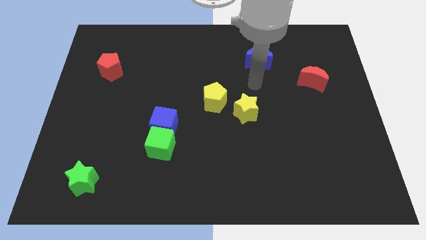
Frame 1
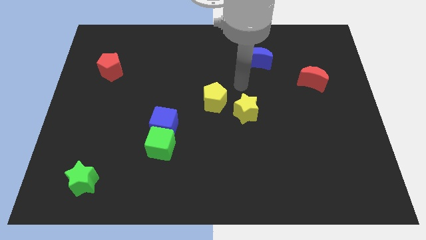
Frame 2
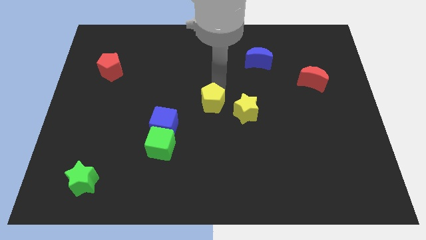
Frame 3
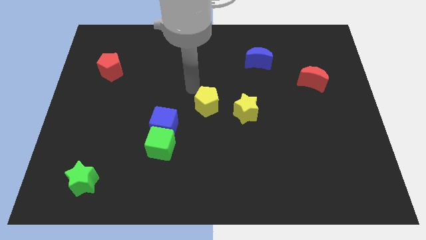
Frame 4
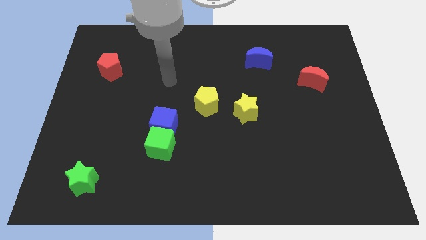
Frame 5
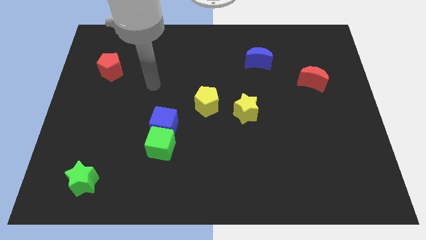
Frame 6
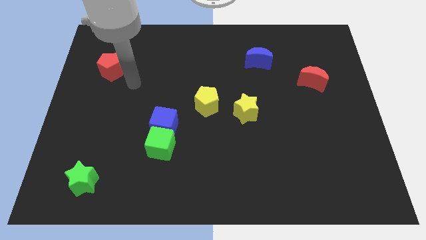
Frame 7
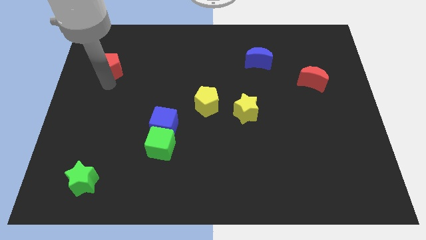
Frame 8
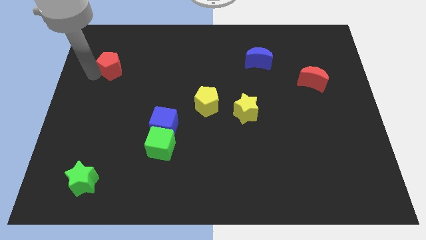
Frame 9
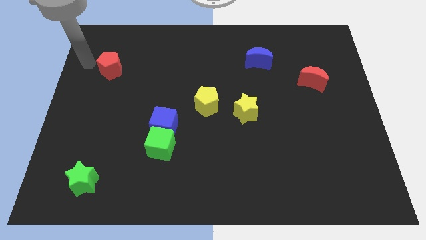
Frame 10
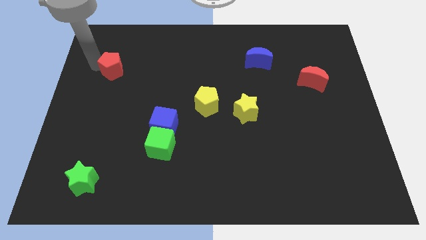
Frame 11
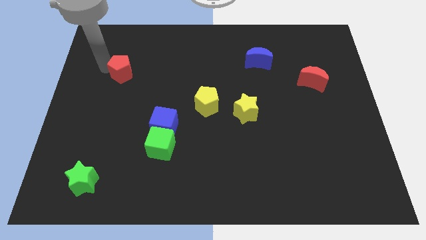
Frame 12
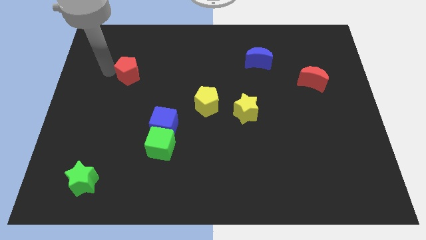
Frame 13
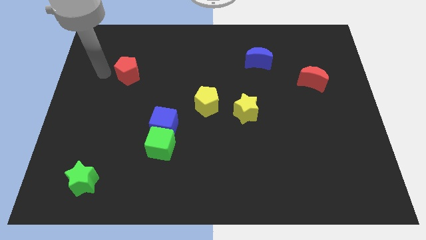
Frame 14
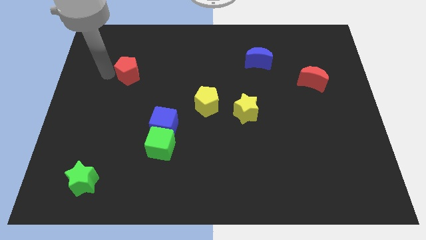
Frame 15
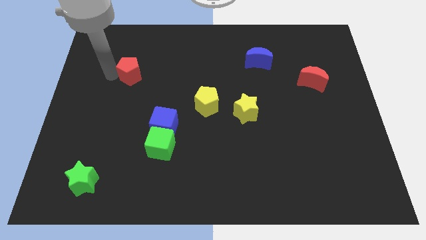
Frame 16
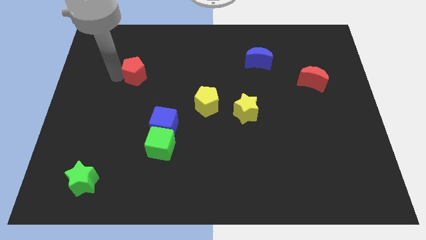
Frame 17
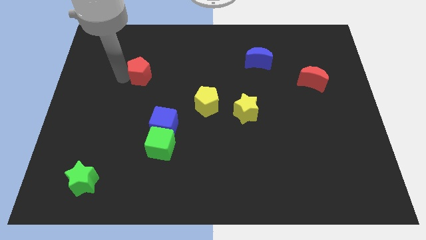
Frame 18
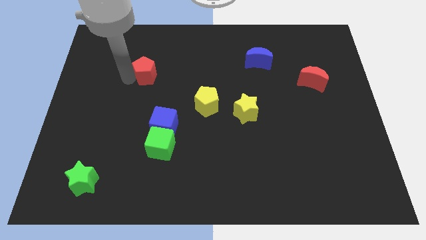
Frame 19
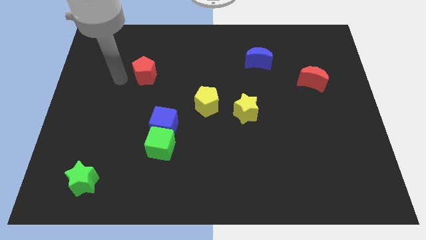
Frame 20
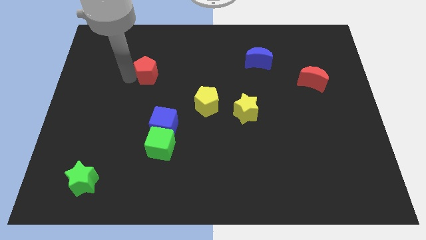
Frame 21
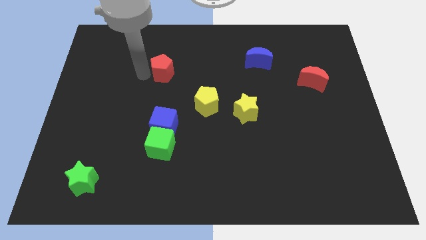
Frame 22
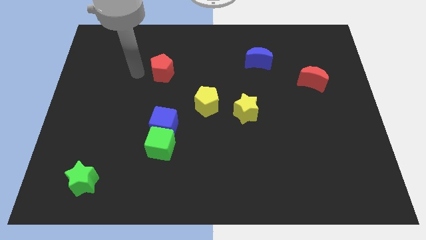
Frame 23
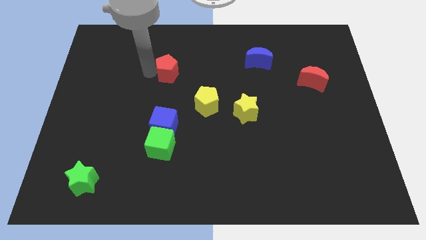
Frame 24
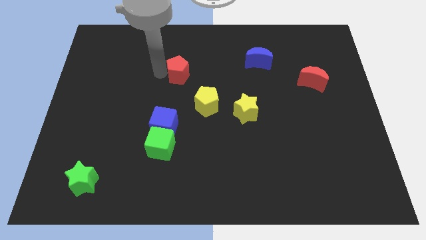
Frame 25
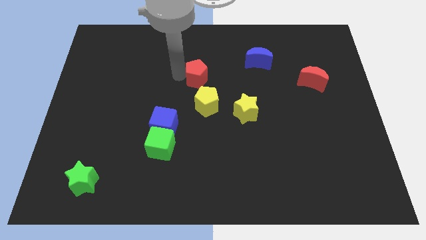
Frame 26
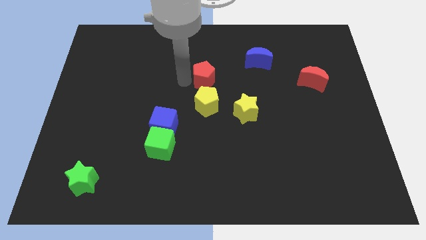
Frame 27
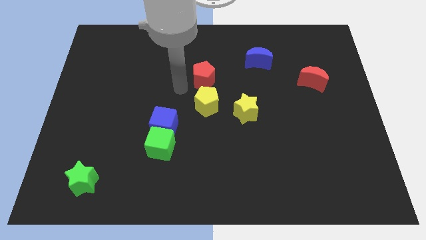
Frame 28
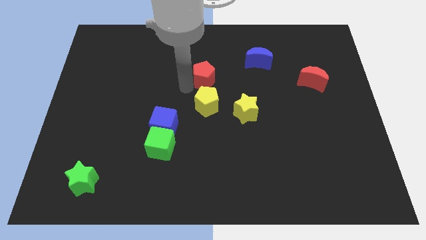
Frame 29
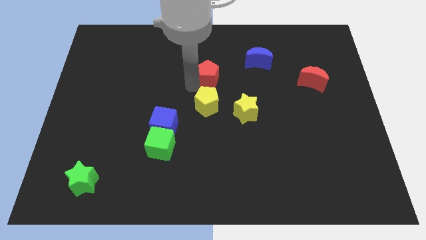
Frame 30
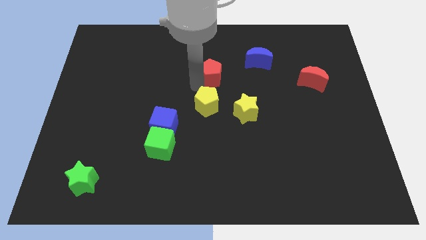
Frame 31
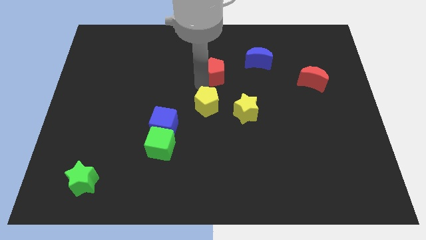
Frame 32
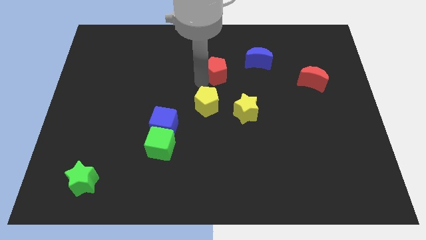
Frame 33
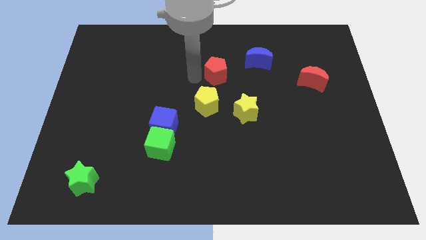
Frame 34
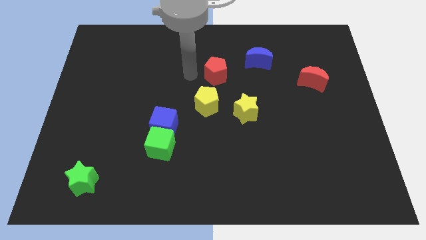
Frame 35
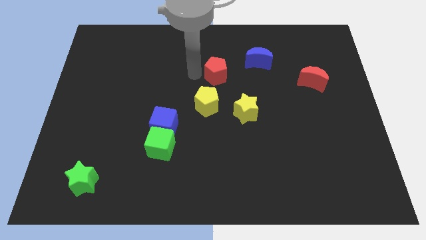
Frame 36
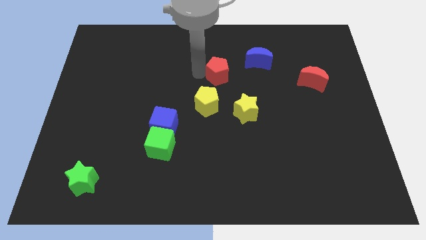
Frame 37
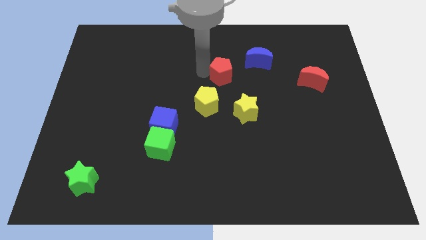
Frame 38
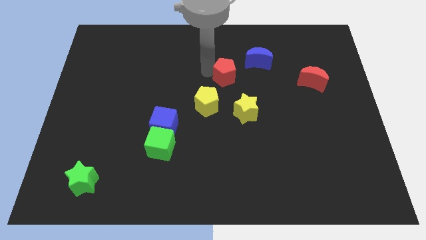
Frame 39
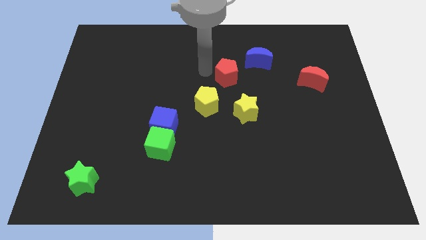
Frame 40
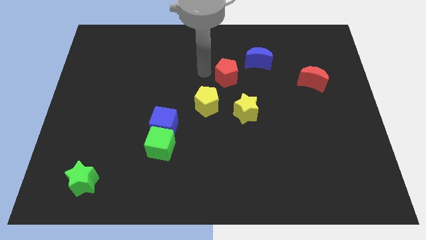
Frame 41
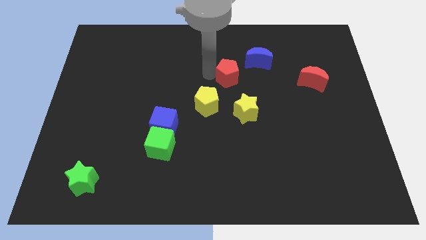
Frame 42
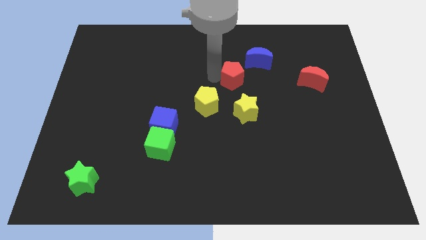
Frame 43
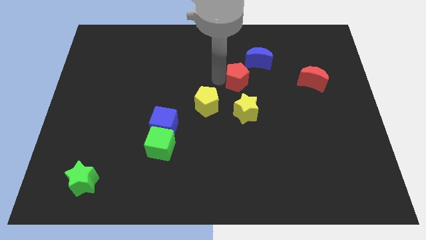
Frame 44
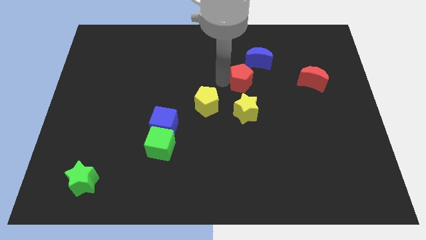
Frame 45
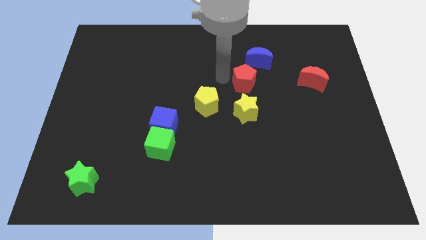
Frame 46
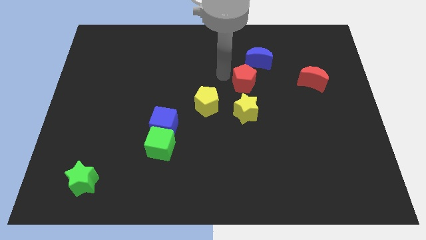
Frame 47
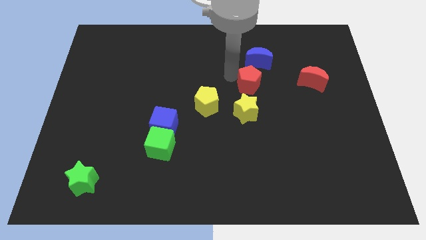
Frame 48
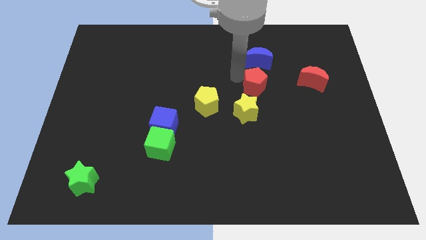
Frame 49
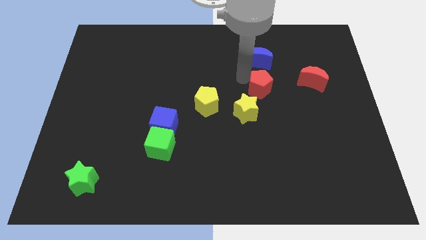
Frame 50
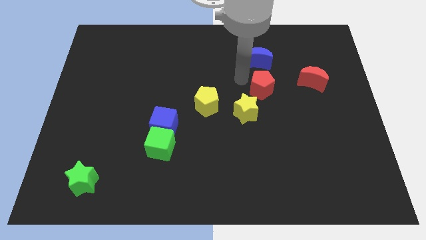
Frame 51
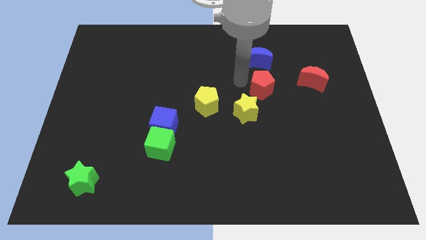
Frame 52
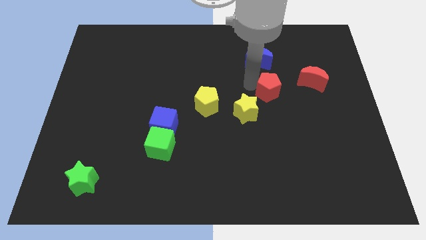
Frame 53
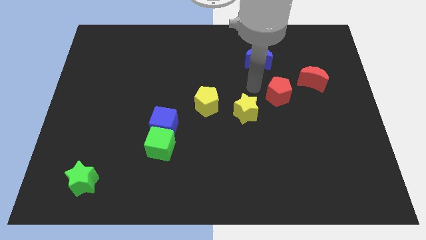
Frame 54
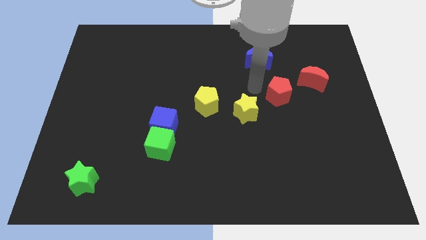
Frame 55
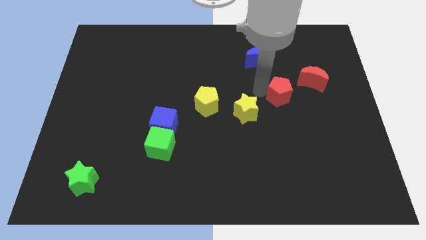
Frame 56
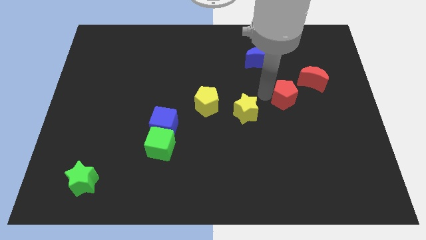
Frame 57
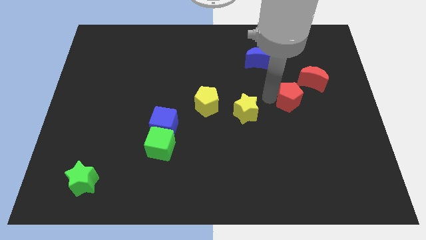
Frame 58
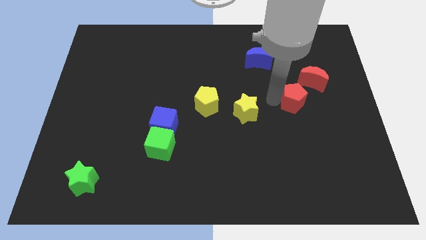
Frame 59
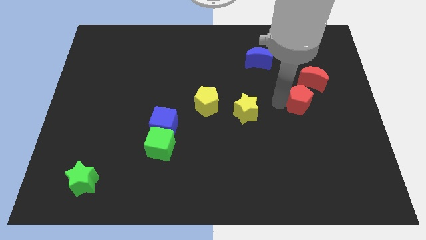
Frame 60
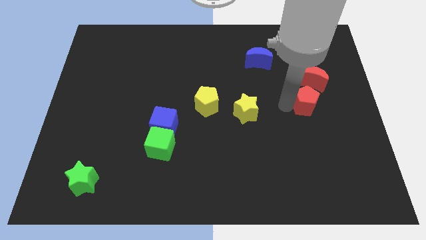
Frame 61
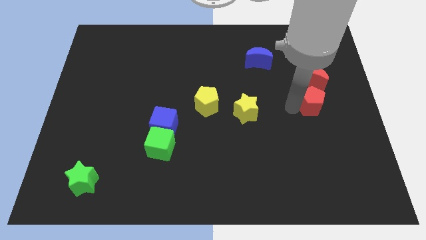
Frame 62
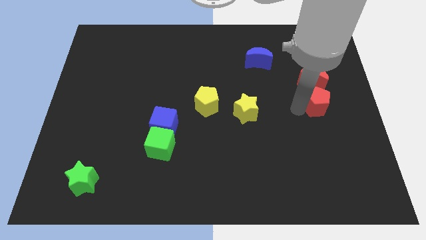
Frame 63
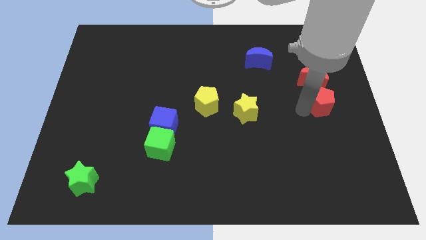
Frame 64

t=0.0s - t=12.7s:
put the red pentagon to the center right

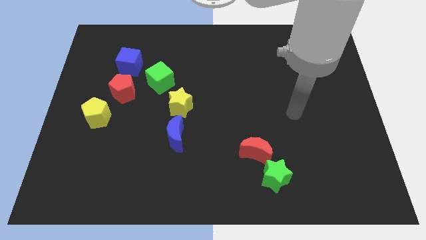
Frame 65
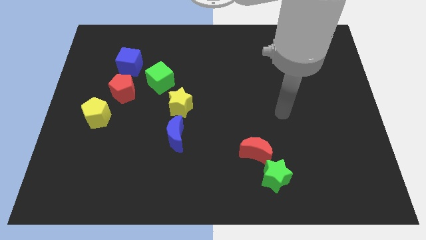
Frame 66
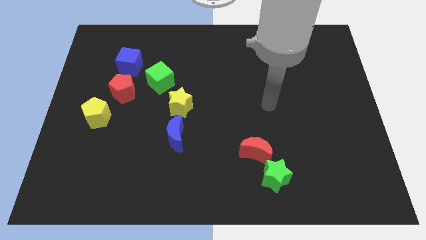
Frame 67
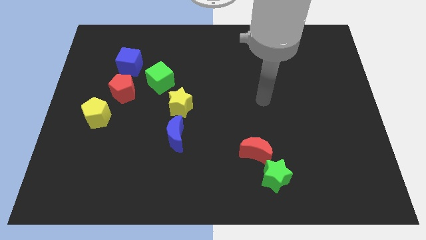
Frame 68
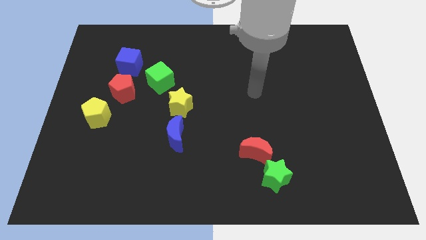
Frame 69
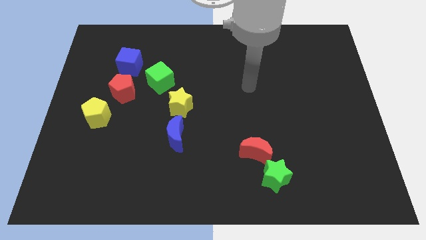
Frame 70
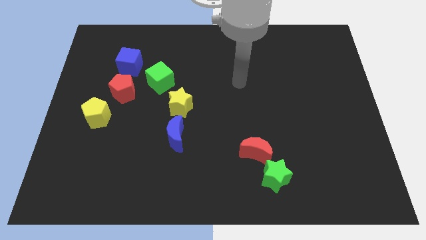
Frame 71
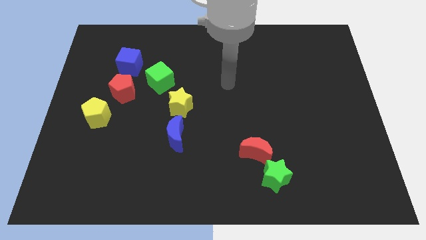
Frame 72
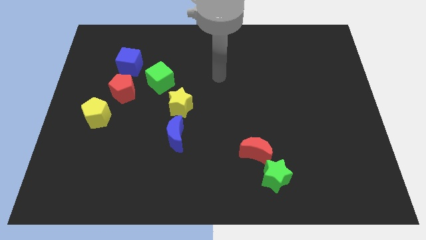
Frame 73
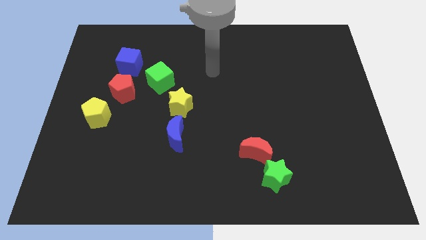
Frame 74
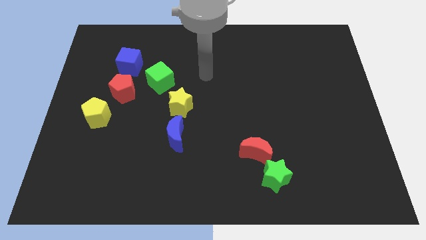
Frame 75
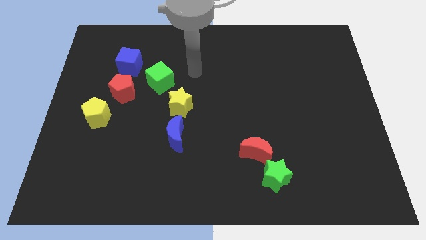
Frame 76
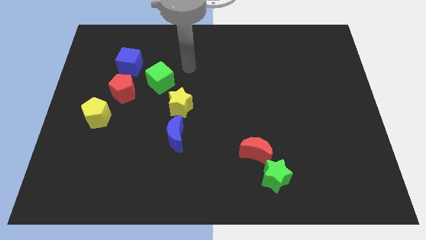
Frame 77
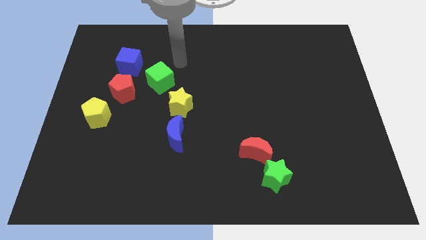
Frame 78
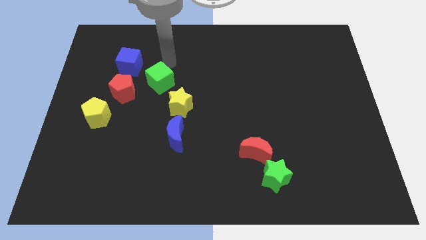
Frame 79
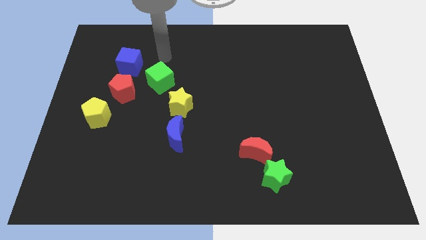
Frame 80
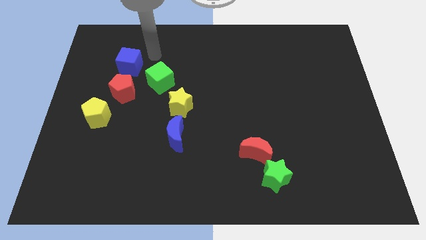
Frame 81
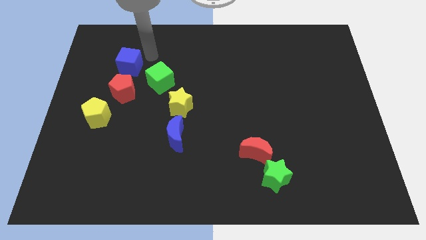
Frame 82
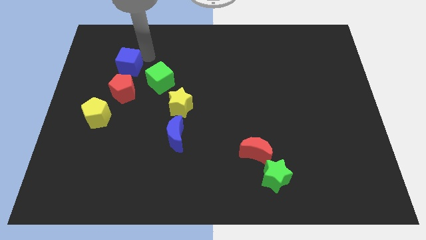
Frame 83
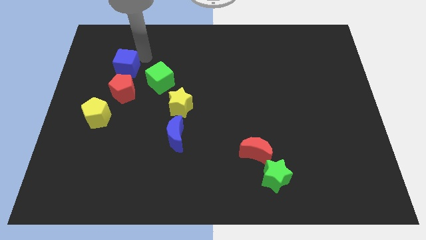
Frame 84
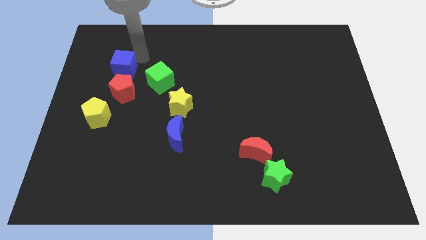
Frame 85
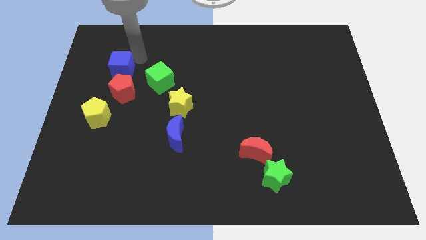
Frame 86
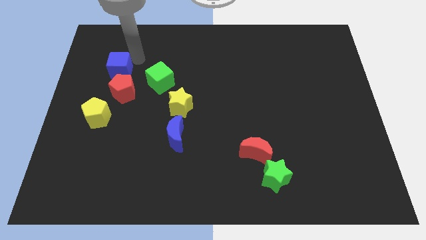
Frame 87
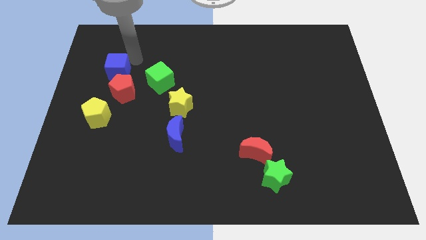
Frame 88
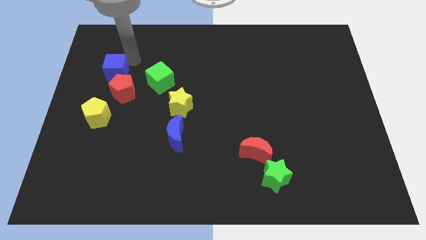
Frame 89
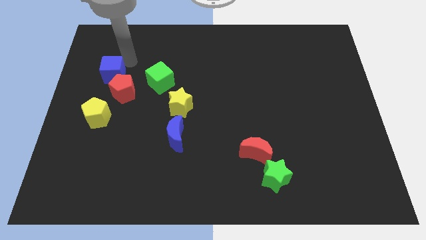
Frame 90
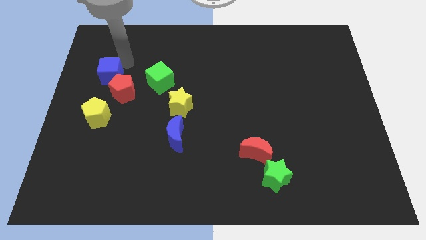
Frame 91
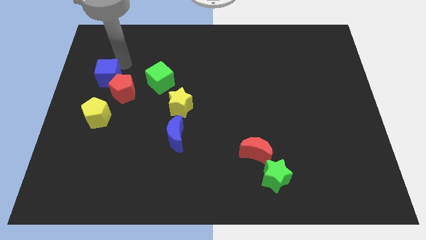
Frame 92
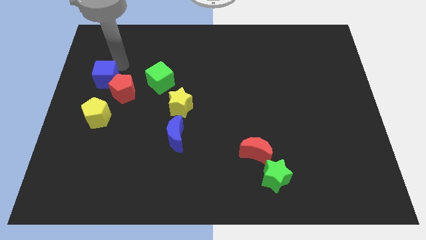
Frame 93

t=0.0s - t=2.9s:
put the blue cube to the center left
